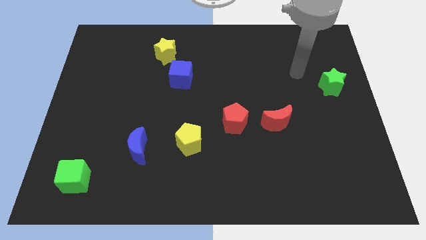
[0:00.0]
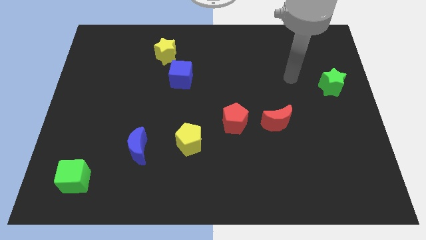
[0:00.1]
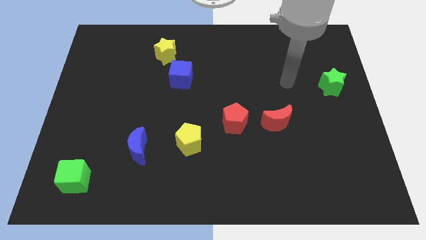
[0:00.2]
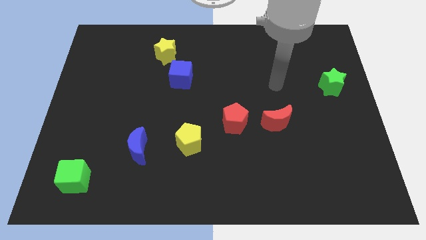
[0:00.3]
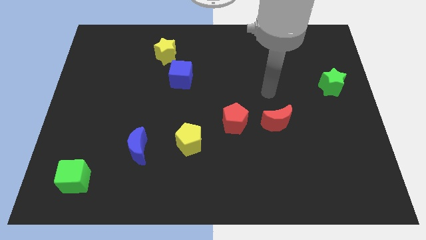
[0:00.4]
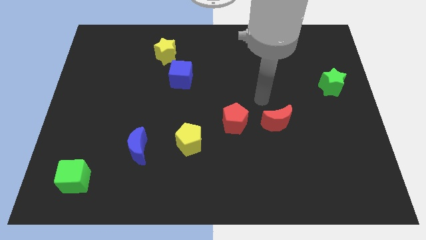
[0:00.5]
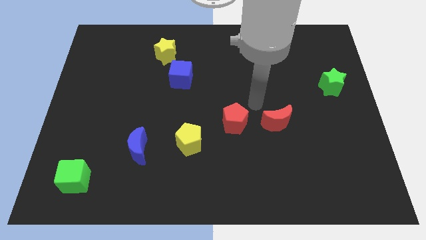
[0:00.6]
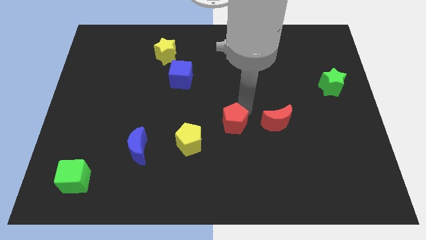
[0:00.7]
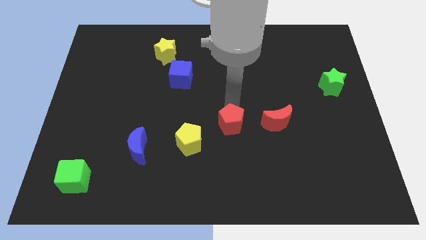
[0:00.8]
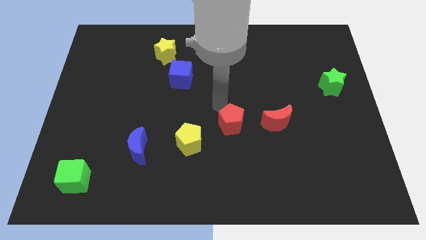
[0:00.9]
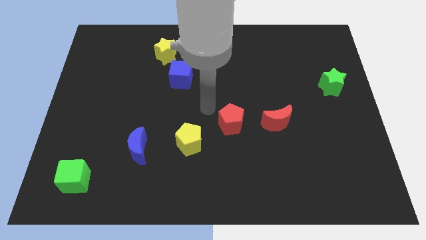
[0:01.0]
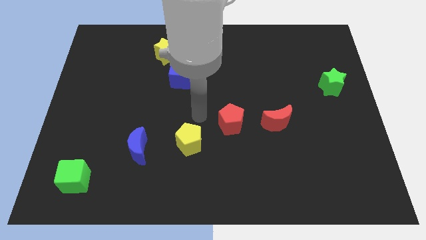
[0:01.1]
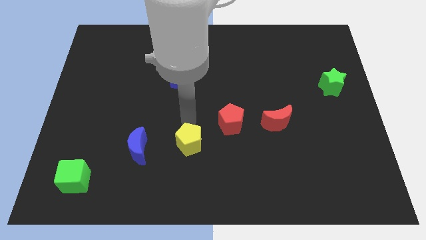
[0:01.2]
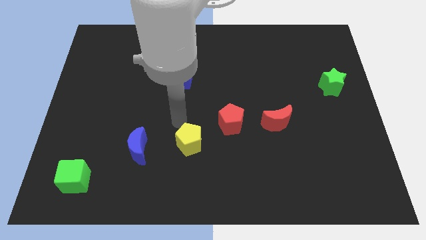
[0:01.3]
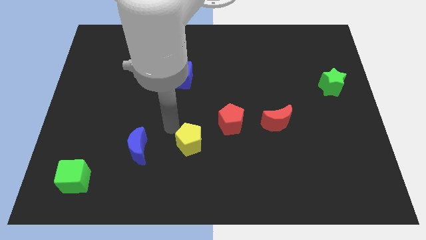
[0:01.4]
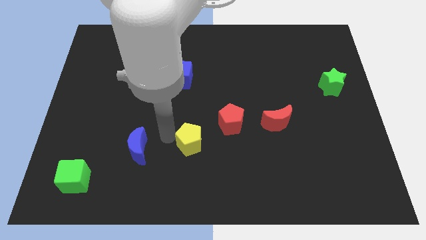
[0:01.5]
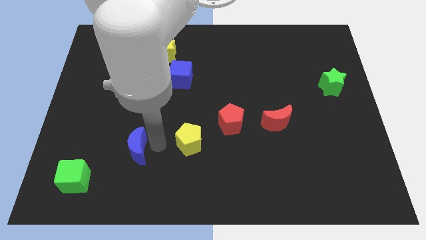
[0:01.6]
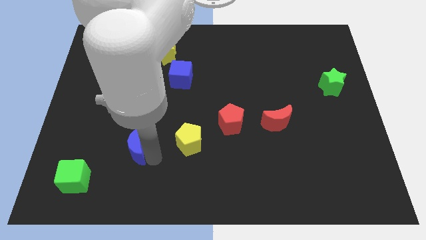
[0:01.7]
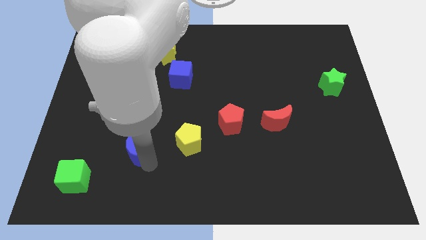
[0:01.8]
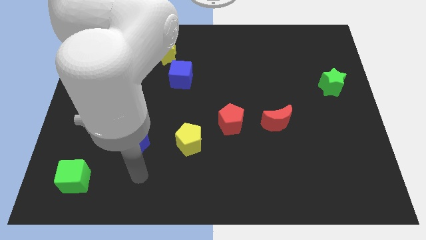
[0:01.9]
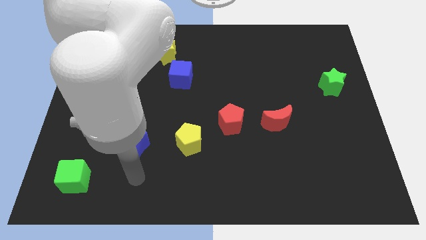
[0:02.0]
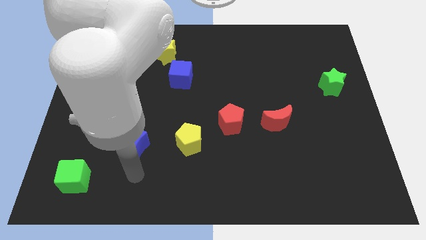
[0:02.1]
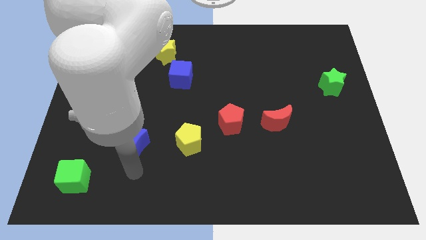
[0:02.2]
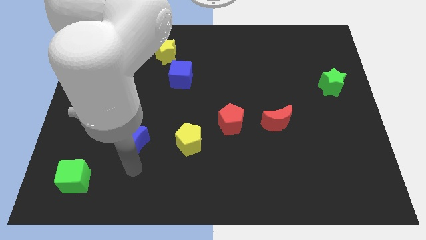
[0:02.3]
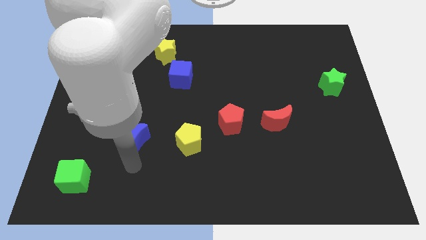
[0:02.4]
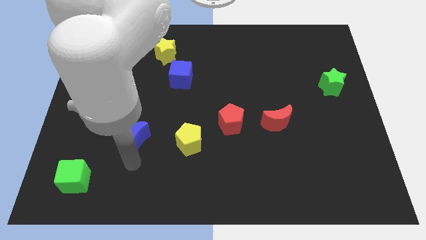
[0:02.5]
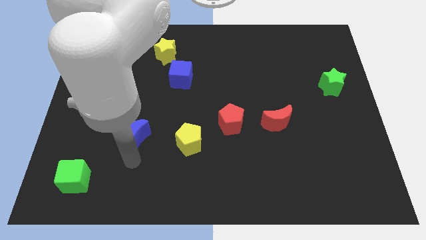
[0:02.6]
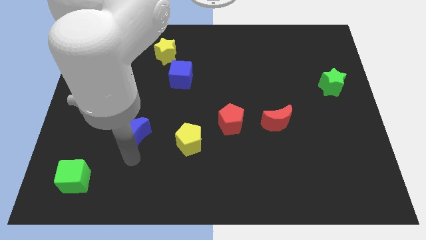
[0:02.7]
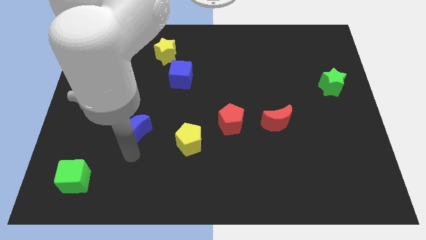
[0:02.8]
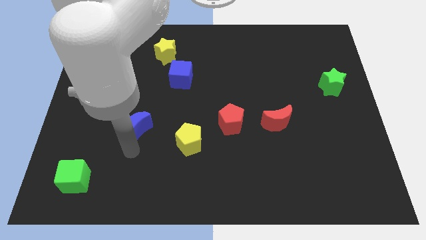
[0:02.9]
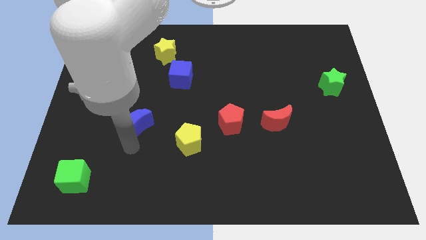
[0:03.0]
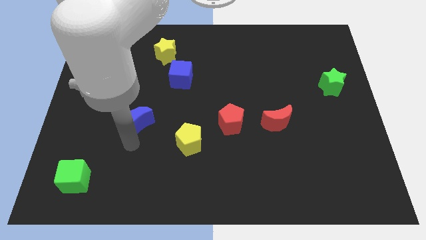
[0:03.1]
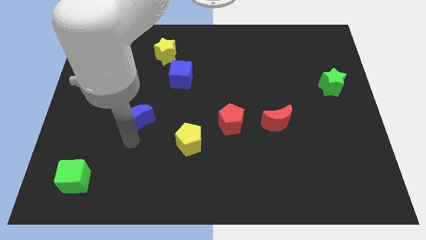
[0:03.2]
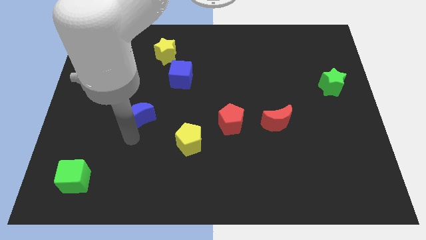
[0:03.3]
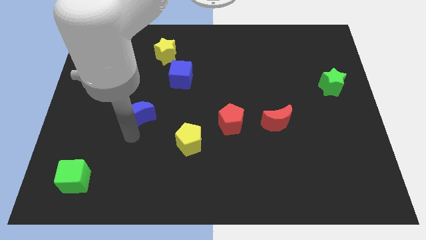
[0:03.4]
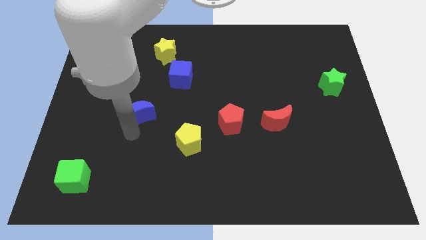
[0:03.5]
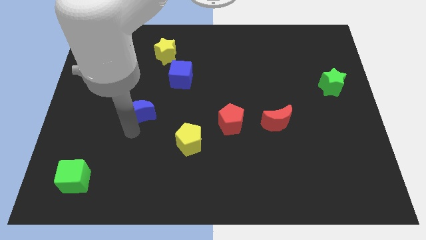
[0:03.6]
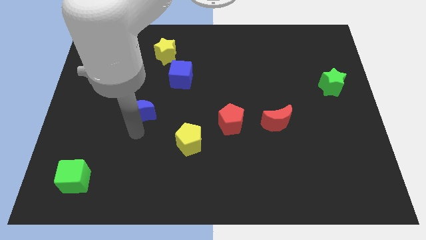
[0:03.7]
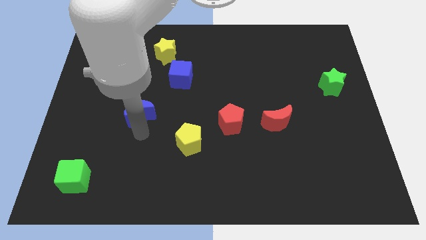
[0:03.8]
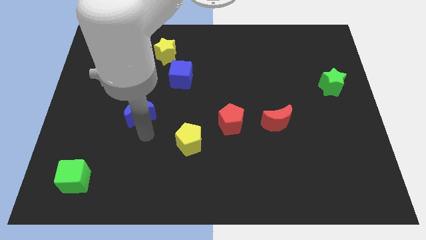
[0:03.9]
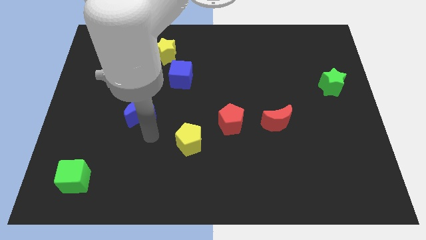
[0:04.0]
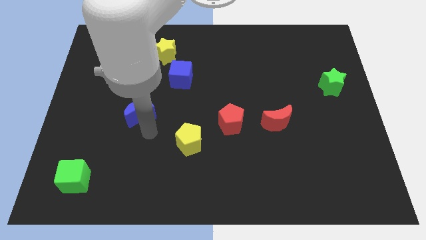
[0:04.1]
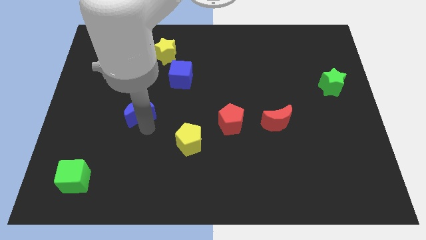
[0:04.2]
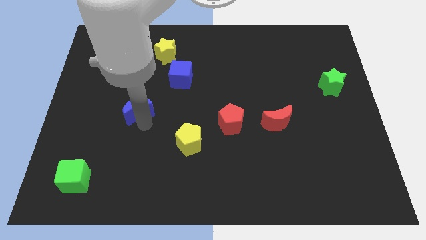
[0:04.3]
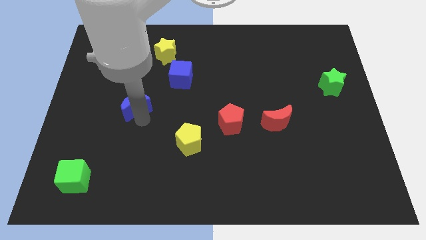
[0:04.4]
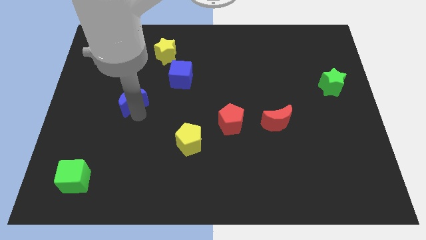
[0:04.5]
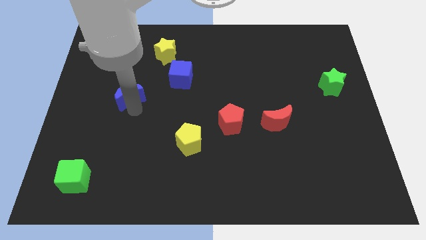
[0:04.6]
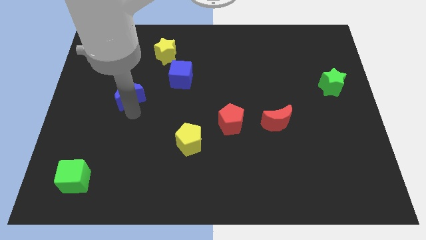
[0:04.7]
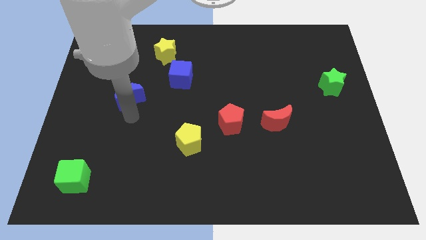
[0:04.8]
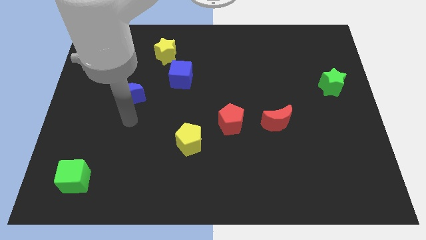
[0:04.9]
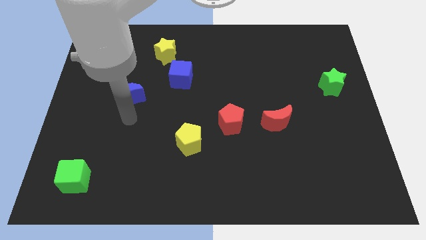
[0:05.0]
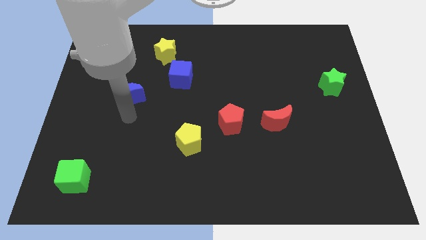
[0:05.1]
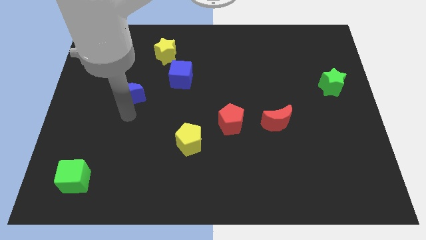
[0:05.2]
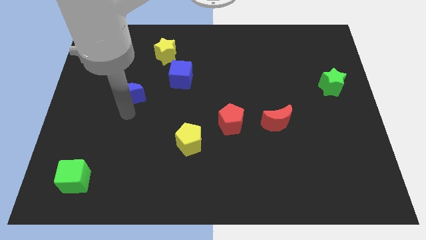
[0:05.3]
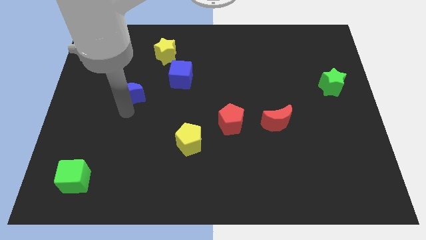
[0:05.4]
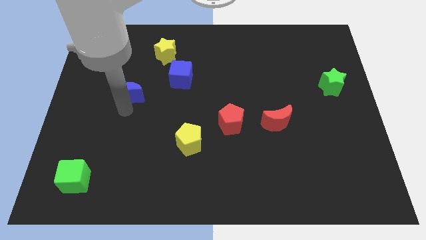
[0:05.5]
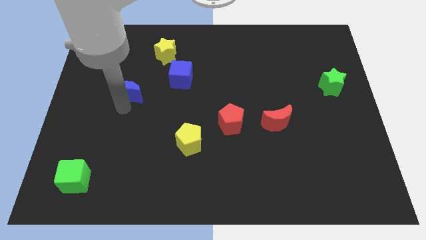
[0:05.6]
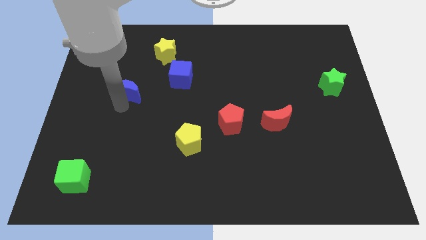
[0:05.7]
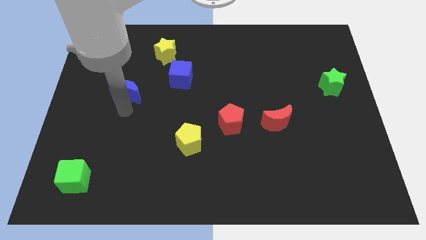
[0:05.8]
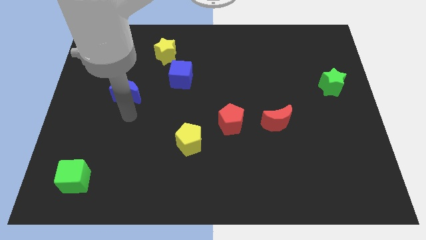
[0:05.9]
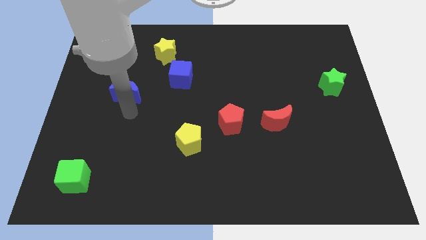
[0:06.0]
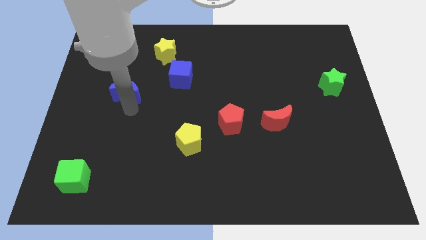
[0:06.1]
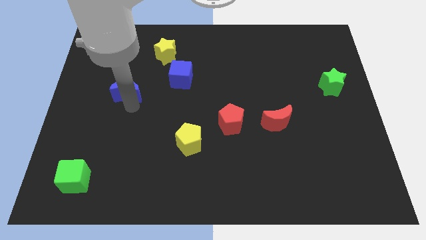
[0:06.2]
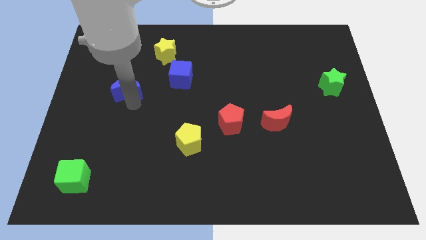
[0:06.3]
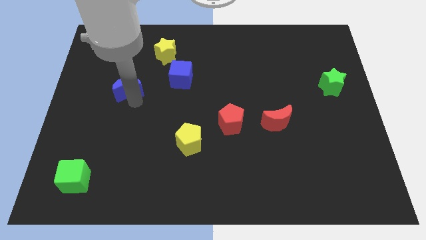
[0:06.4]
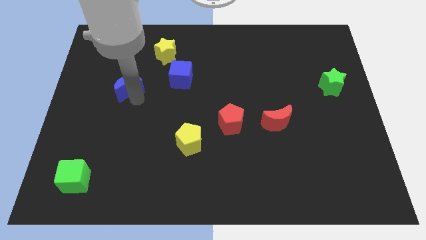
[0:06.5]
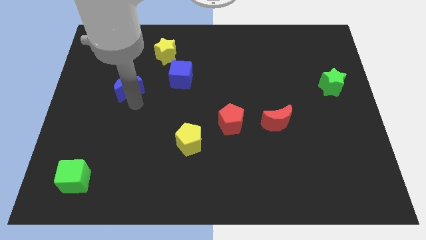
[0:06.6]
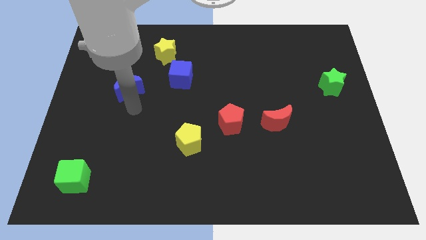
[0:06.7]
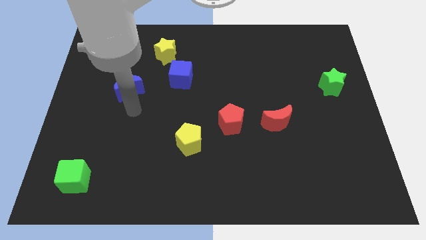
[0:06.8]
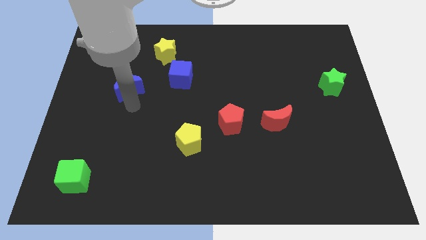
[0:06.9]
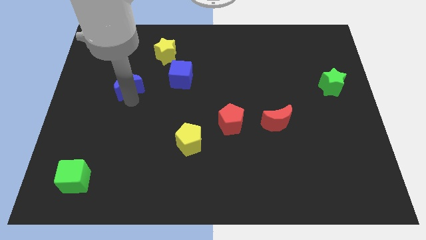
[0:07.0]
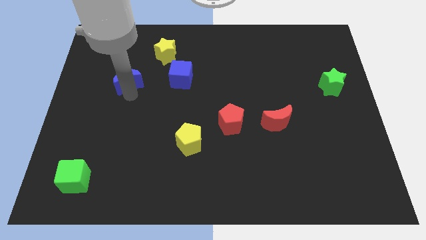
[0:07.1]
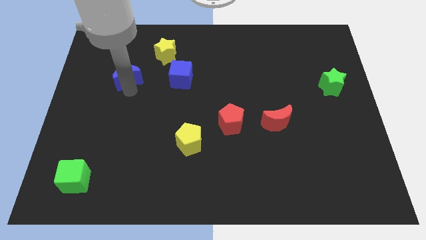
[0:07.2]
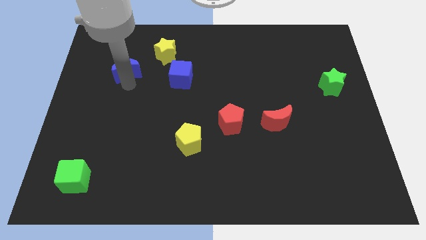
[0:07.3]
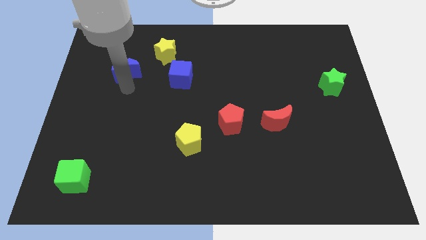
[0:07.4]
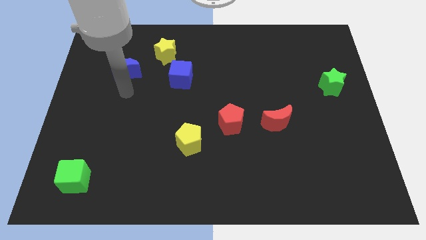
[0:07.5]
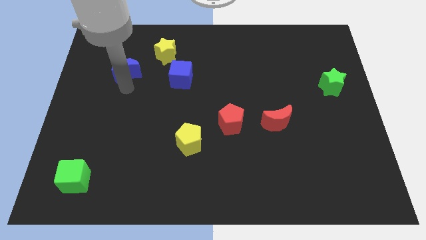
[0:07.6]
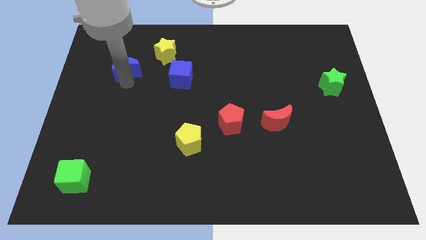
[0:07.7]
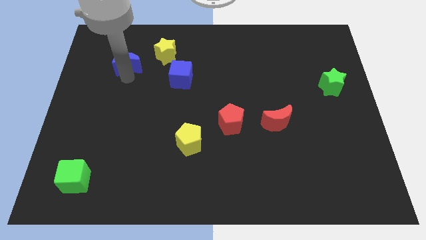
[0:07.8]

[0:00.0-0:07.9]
push the blue moon to the left of the yellow star

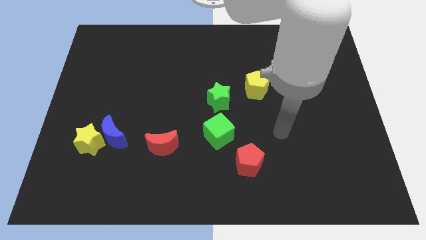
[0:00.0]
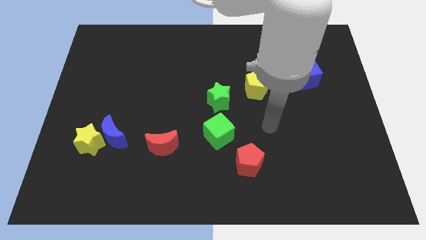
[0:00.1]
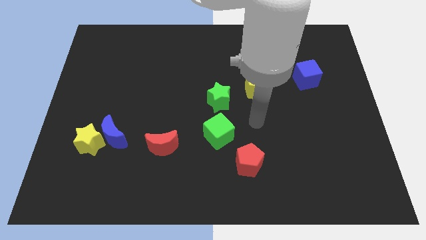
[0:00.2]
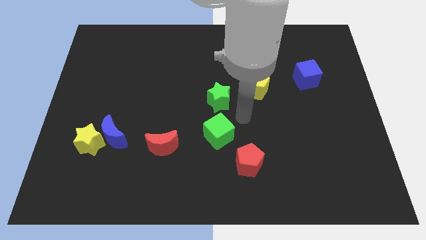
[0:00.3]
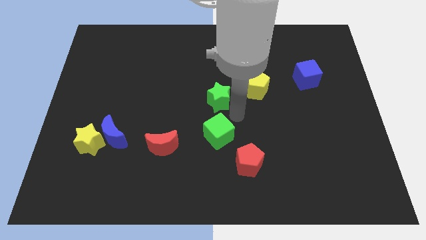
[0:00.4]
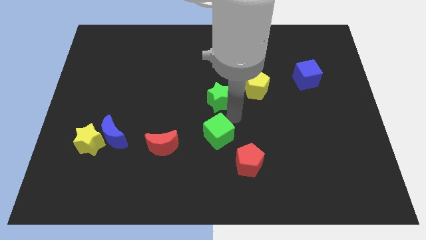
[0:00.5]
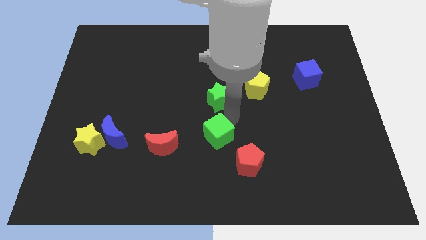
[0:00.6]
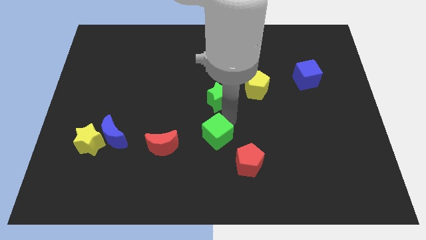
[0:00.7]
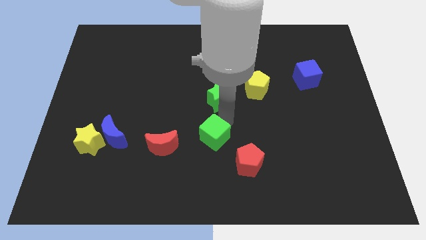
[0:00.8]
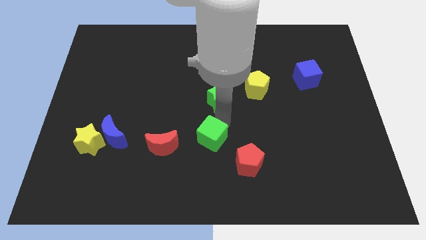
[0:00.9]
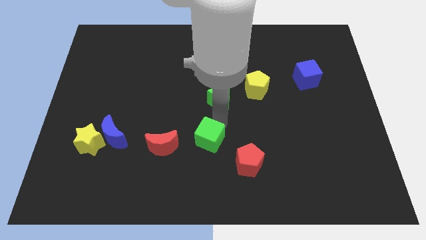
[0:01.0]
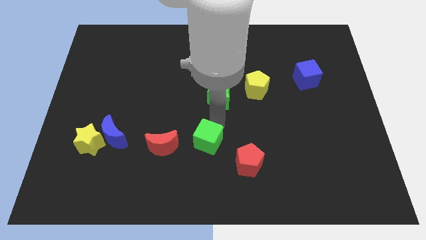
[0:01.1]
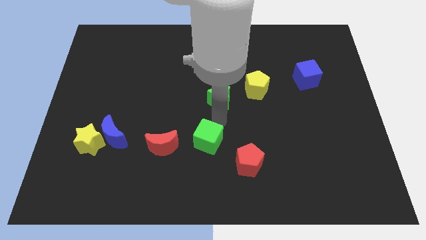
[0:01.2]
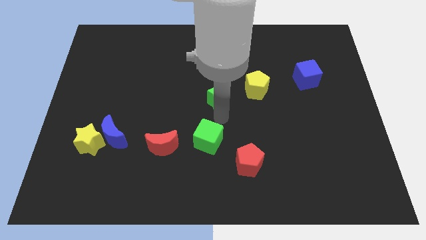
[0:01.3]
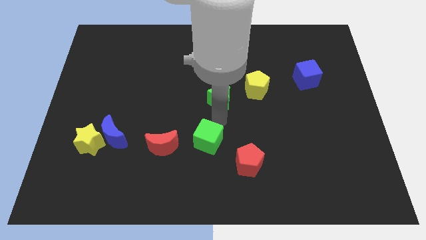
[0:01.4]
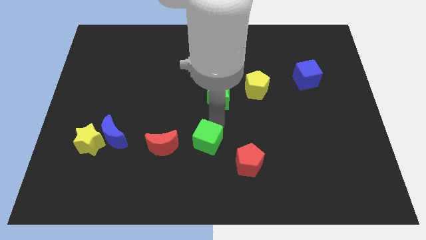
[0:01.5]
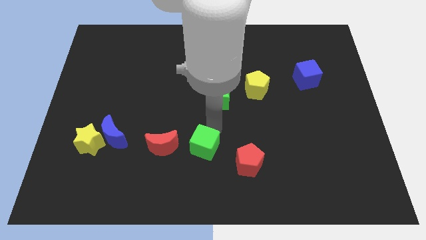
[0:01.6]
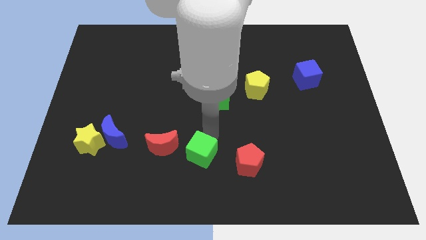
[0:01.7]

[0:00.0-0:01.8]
move the green cube to the bottom right side of the red moon
